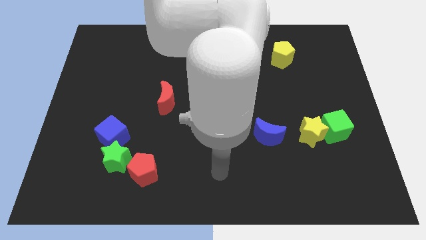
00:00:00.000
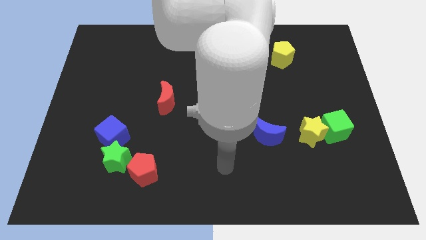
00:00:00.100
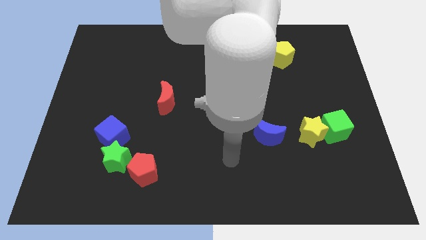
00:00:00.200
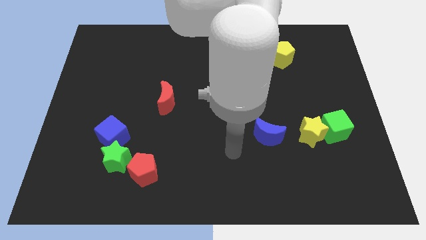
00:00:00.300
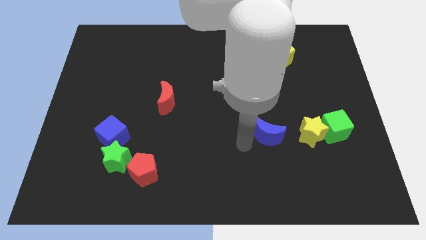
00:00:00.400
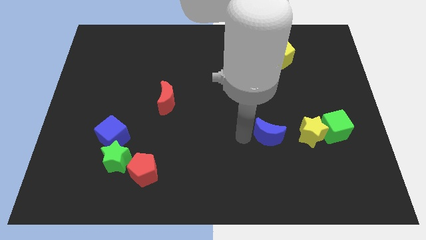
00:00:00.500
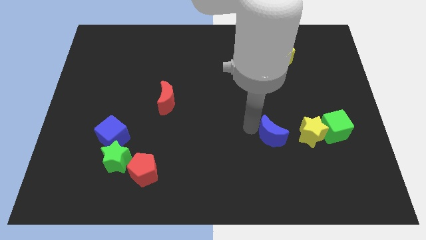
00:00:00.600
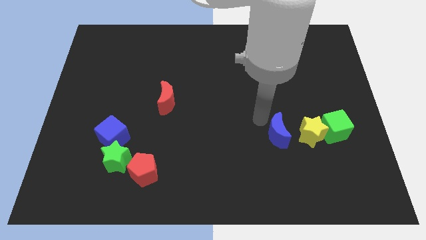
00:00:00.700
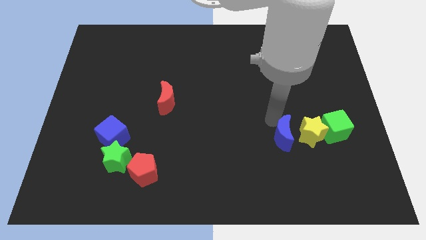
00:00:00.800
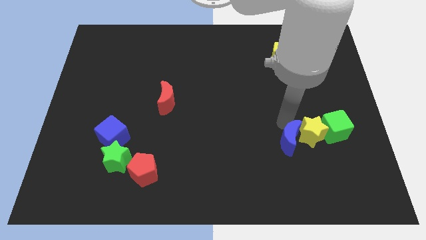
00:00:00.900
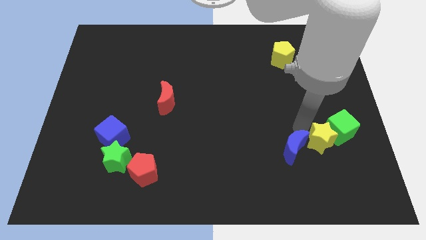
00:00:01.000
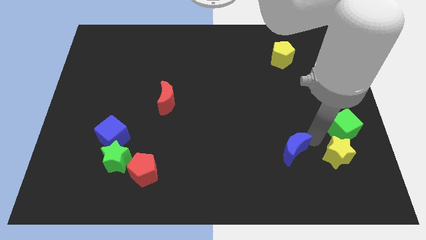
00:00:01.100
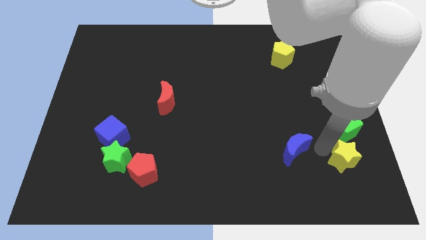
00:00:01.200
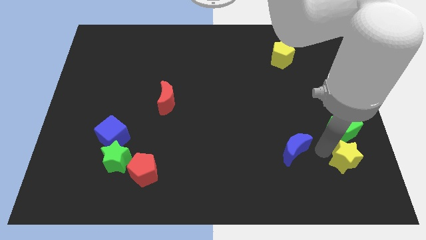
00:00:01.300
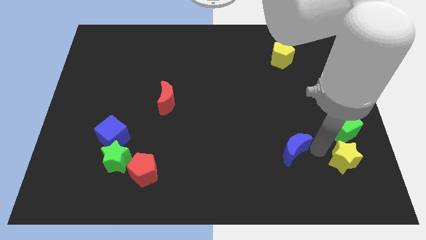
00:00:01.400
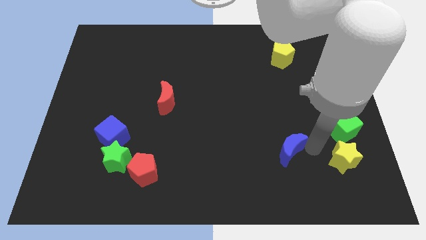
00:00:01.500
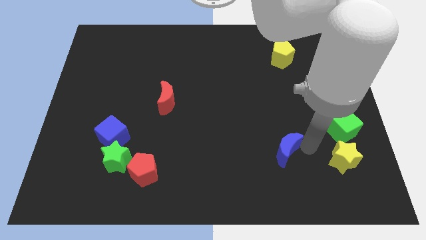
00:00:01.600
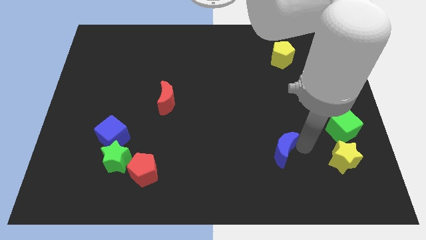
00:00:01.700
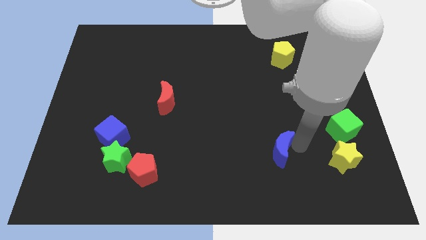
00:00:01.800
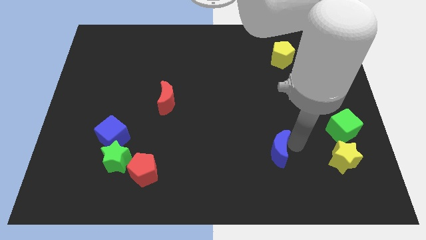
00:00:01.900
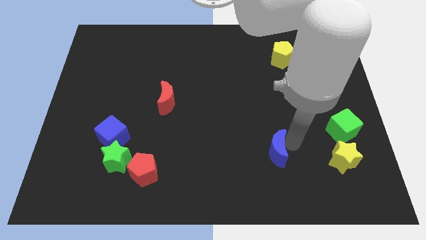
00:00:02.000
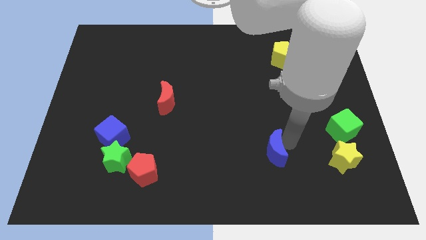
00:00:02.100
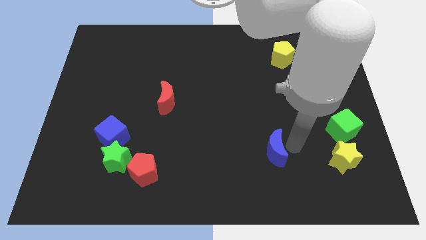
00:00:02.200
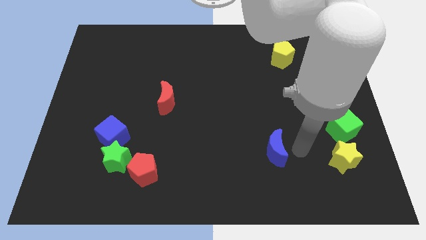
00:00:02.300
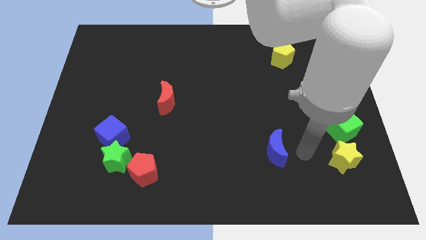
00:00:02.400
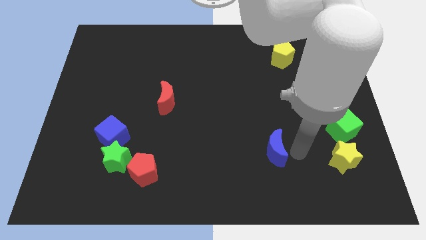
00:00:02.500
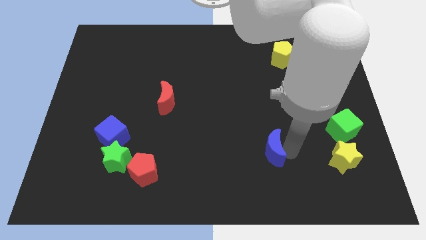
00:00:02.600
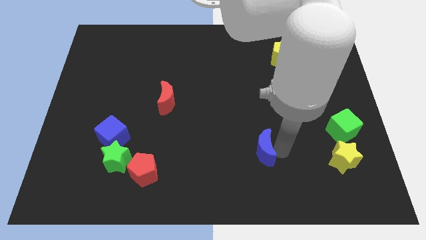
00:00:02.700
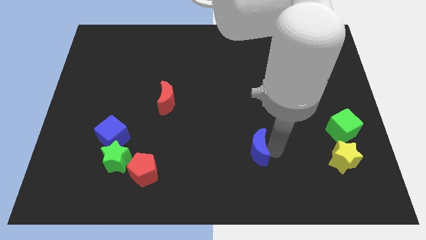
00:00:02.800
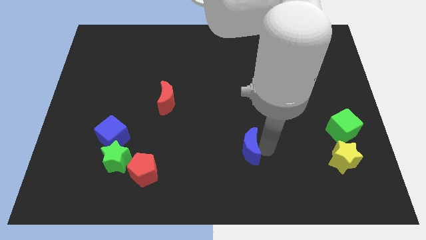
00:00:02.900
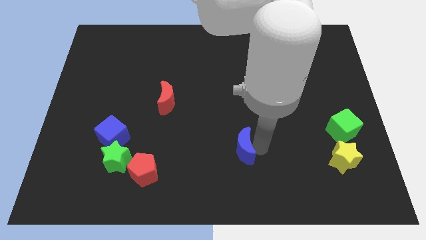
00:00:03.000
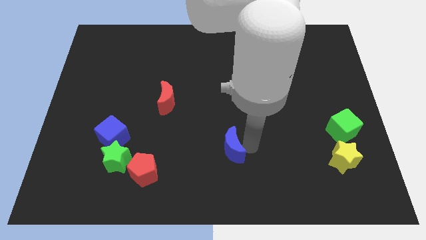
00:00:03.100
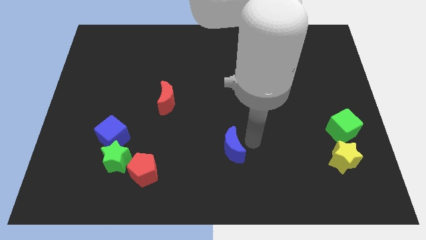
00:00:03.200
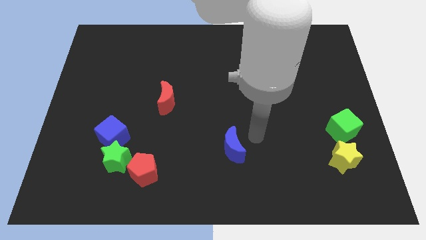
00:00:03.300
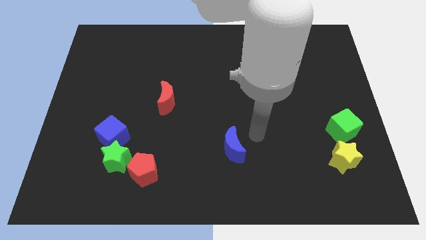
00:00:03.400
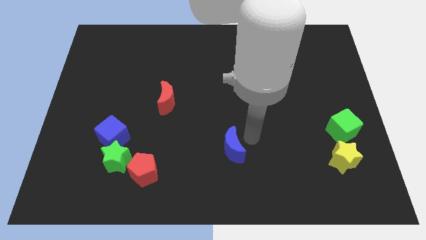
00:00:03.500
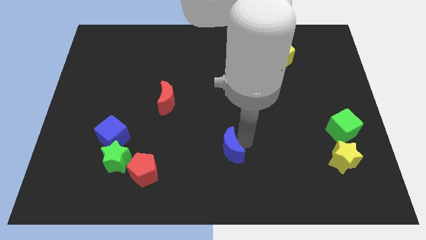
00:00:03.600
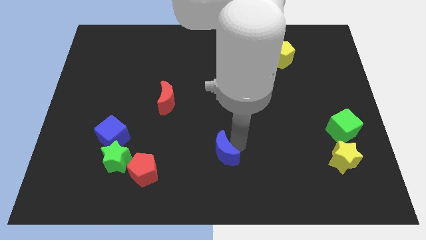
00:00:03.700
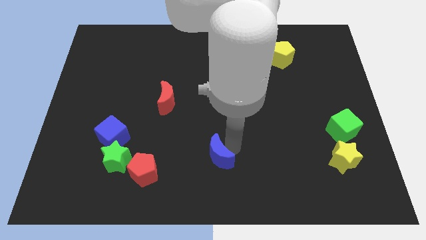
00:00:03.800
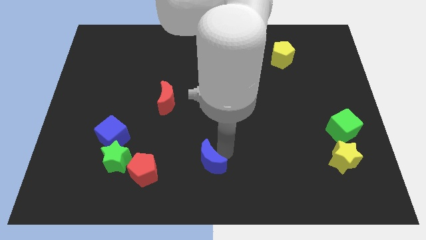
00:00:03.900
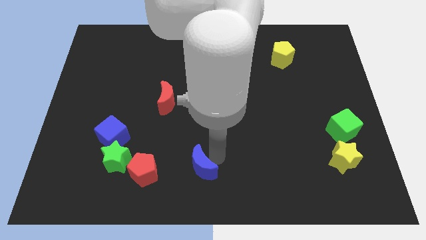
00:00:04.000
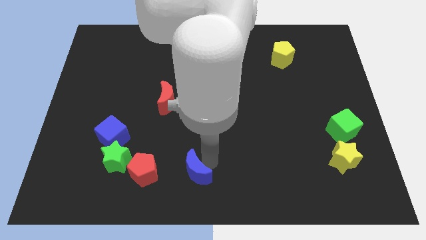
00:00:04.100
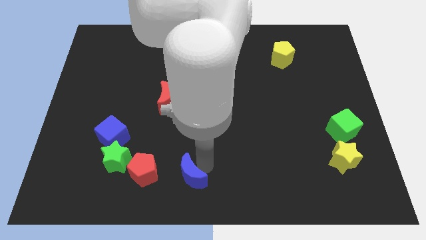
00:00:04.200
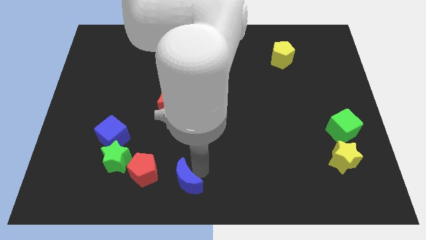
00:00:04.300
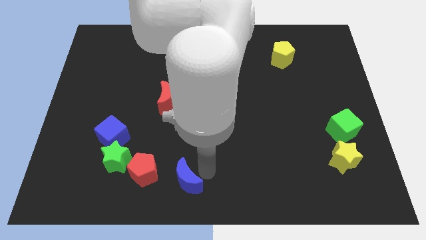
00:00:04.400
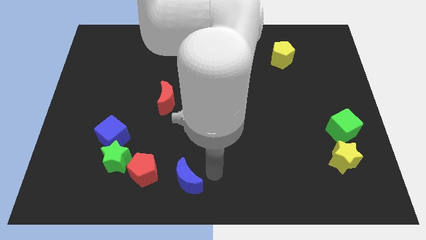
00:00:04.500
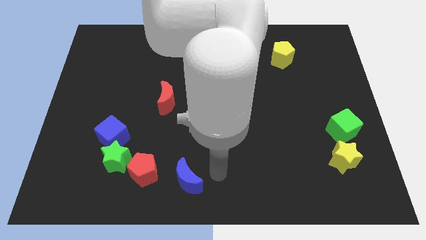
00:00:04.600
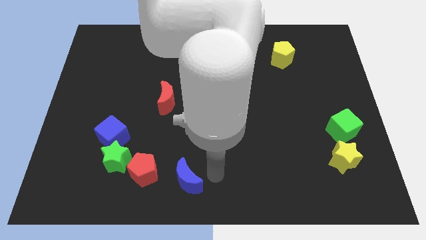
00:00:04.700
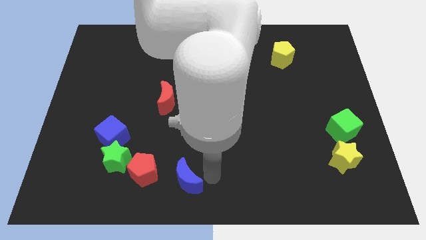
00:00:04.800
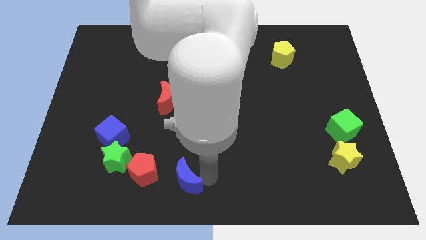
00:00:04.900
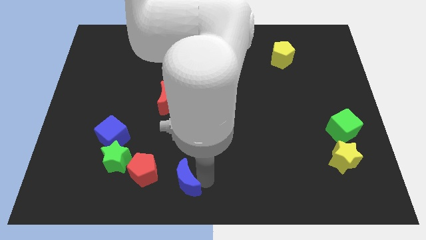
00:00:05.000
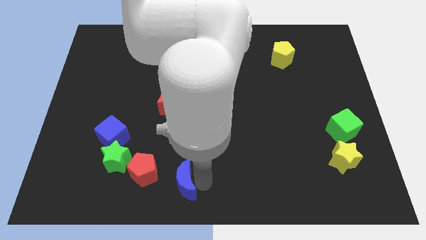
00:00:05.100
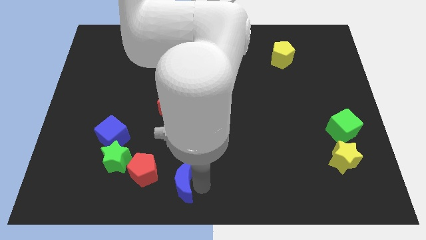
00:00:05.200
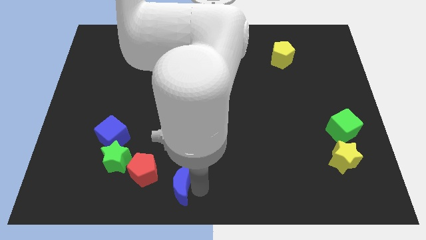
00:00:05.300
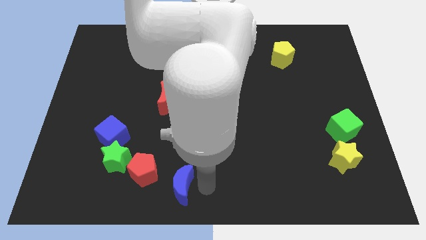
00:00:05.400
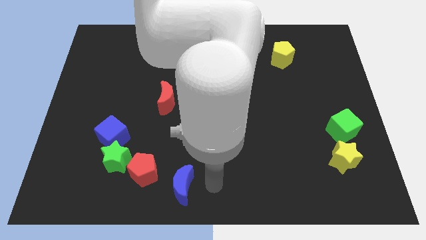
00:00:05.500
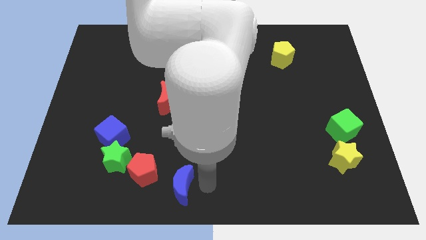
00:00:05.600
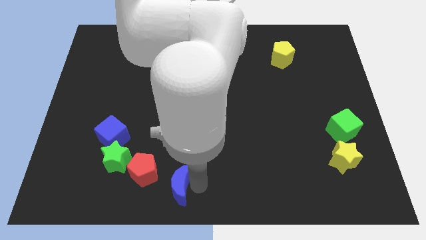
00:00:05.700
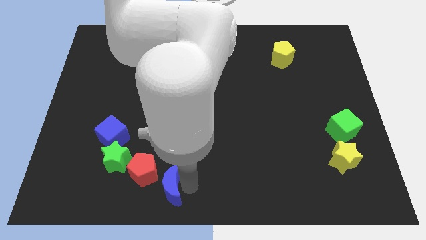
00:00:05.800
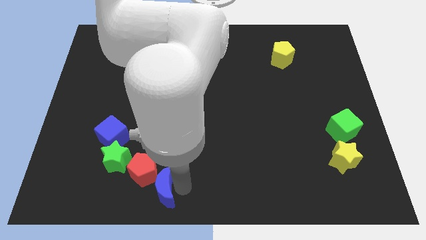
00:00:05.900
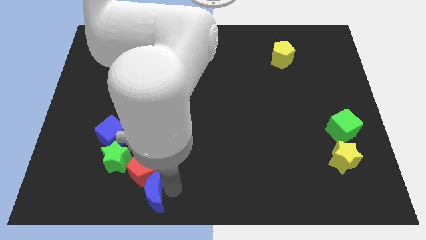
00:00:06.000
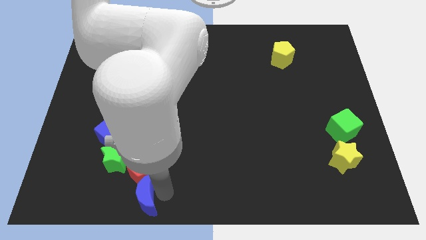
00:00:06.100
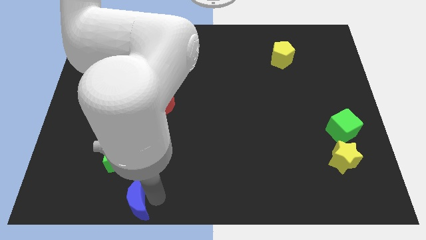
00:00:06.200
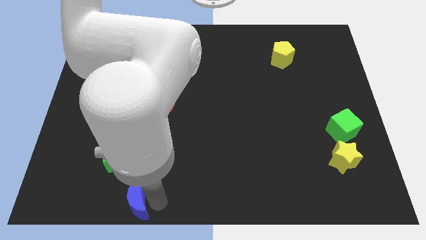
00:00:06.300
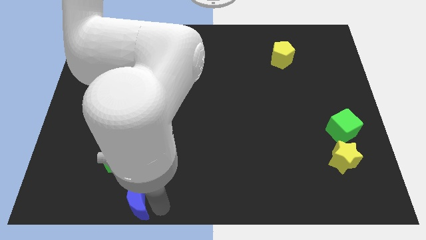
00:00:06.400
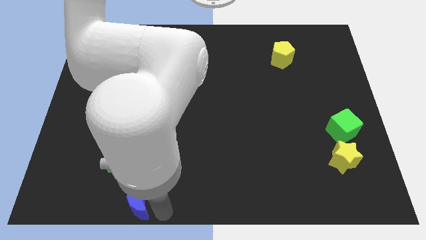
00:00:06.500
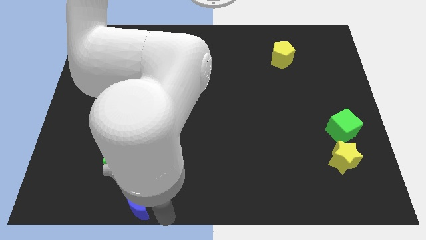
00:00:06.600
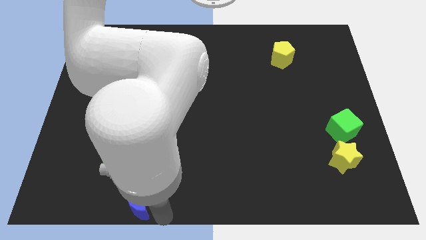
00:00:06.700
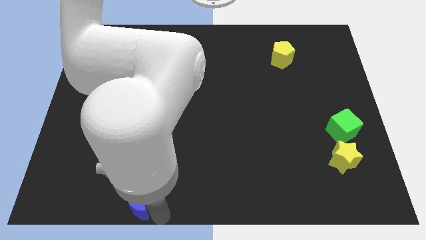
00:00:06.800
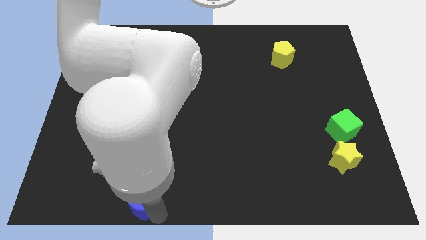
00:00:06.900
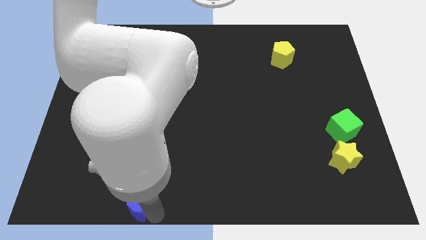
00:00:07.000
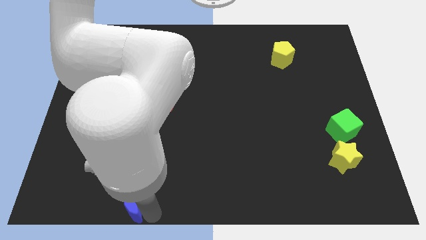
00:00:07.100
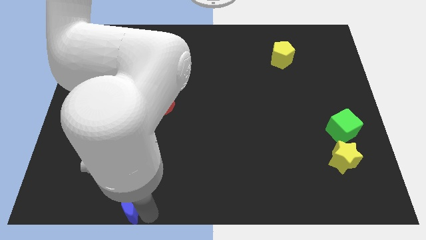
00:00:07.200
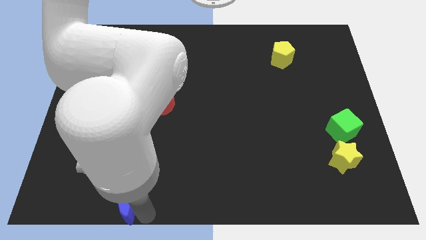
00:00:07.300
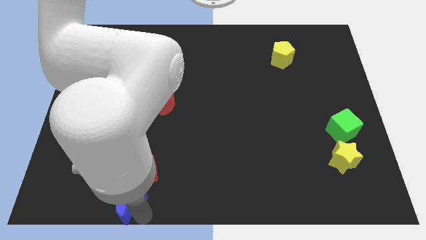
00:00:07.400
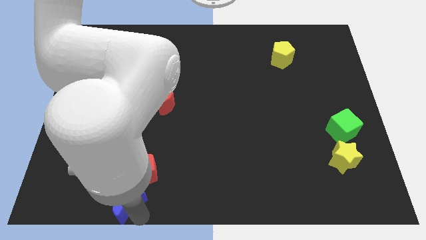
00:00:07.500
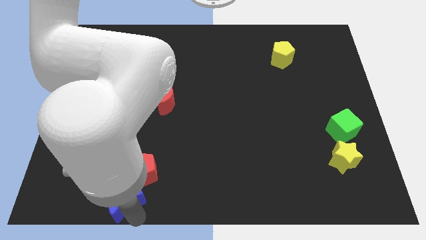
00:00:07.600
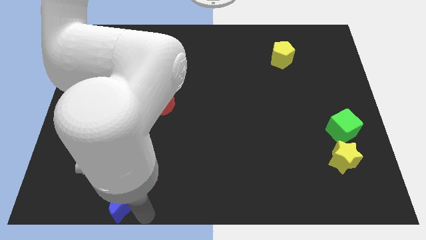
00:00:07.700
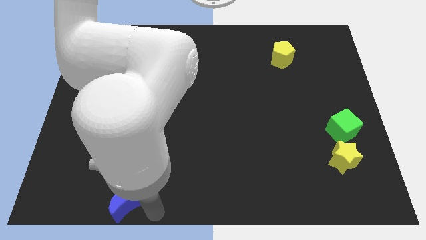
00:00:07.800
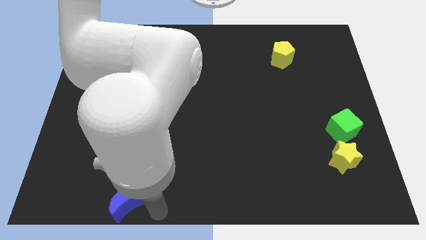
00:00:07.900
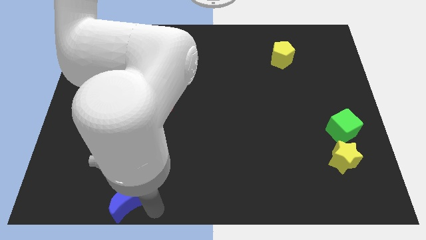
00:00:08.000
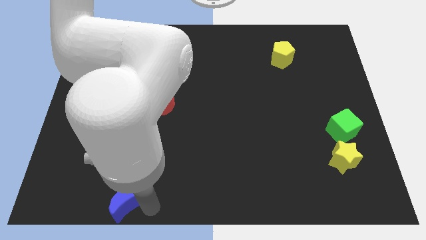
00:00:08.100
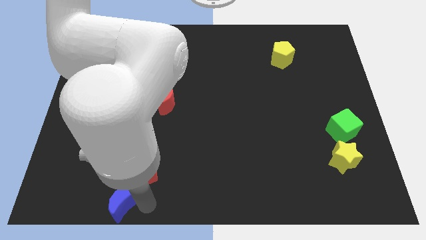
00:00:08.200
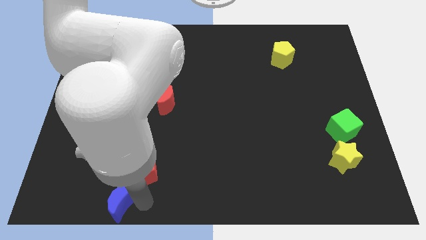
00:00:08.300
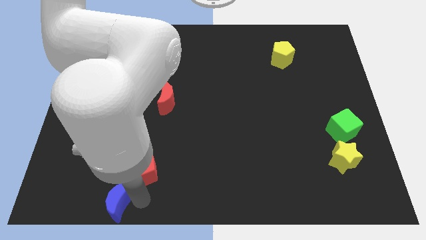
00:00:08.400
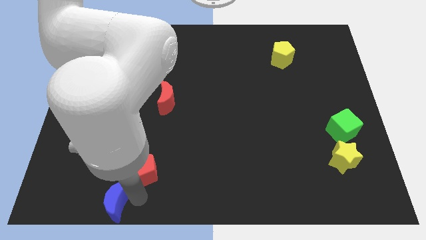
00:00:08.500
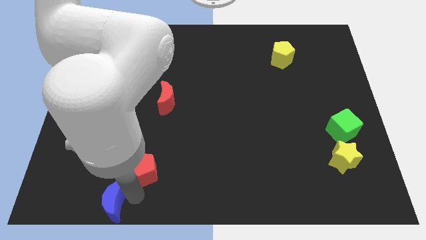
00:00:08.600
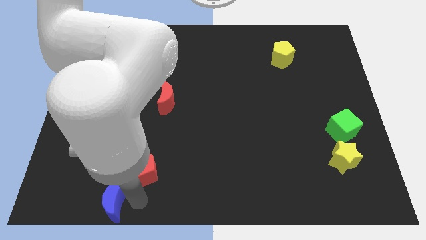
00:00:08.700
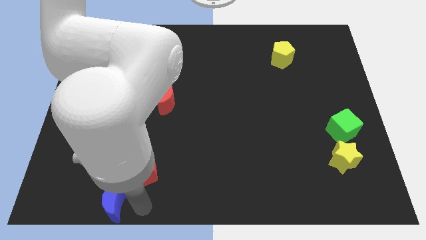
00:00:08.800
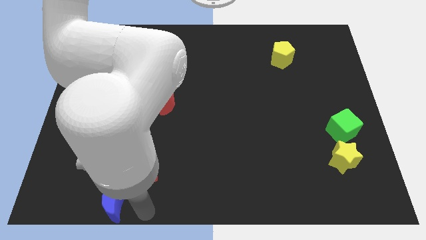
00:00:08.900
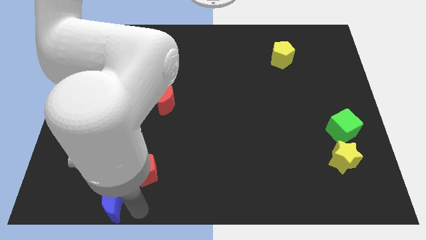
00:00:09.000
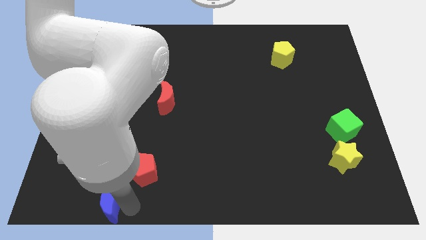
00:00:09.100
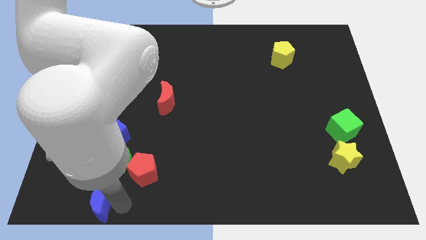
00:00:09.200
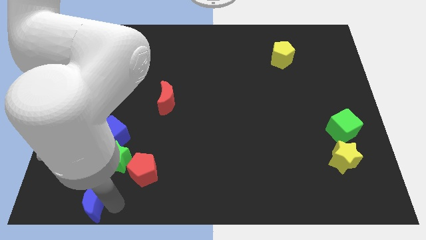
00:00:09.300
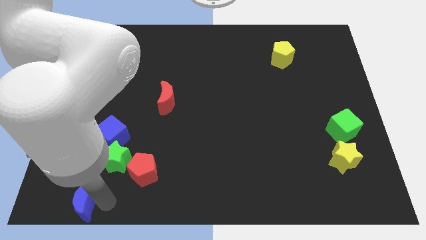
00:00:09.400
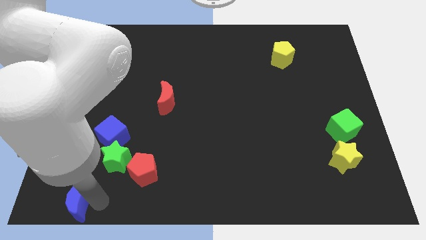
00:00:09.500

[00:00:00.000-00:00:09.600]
slide the blue moon to the bottom left of the board
